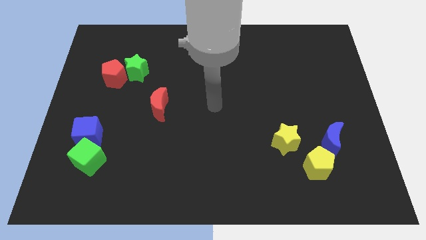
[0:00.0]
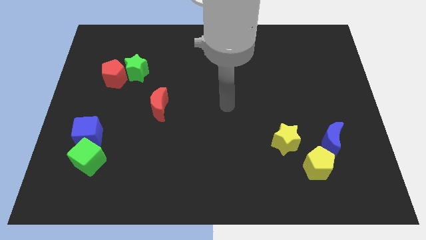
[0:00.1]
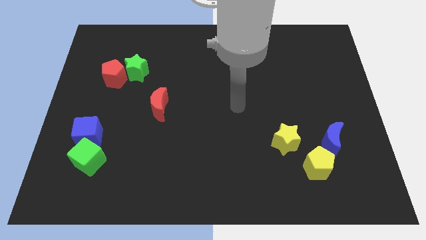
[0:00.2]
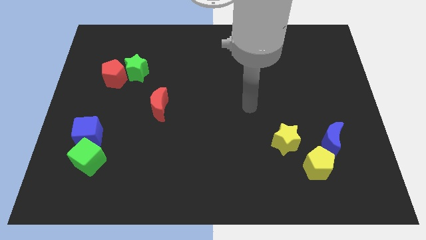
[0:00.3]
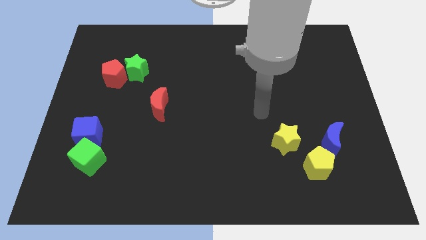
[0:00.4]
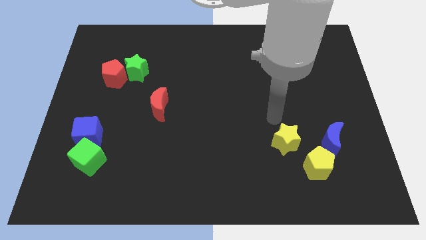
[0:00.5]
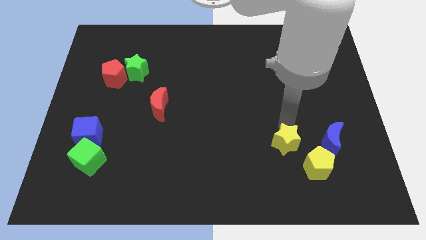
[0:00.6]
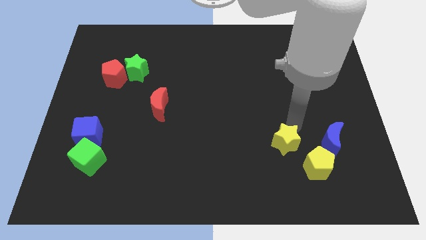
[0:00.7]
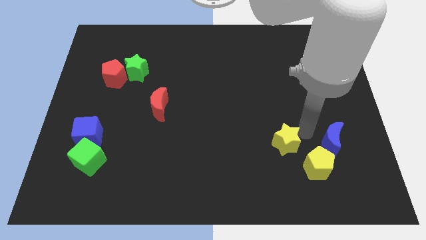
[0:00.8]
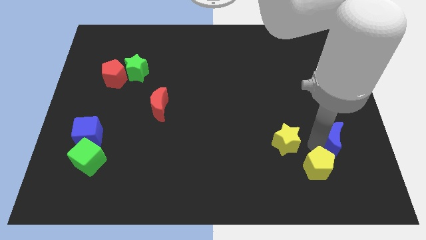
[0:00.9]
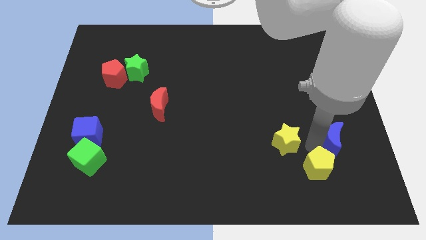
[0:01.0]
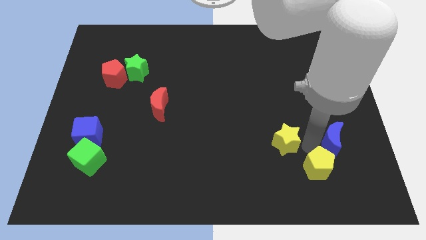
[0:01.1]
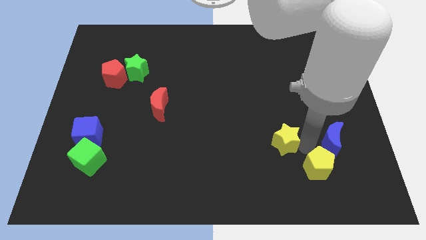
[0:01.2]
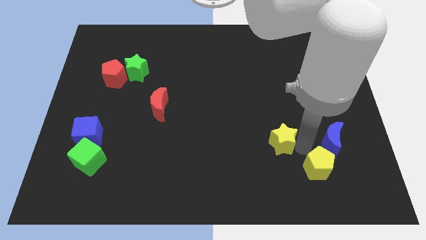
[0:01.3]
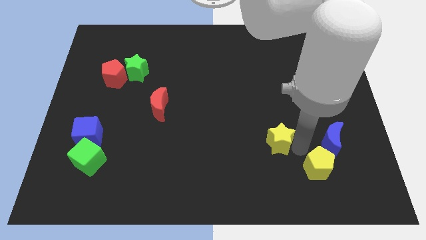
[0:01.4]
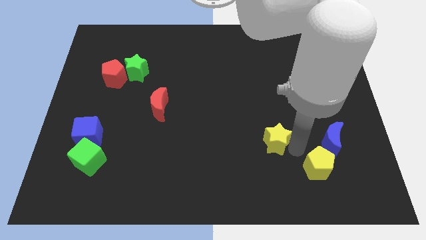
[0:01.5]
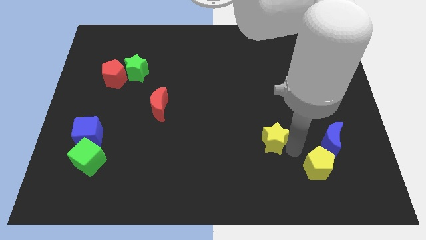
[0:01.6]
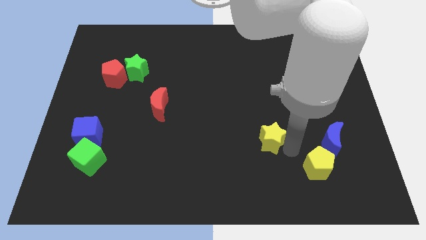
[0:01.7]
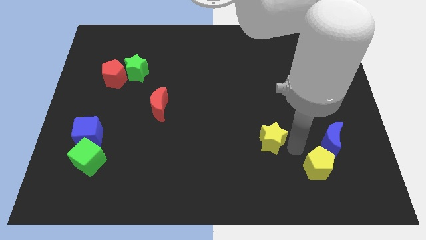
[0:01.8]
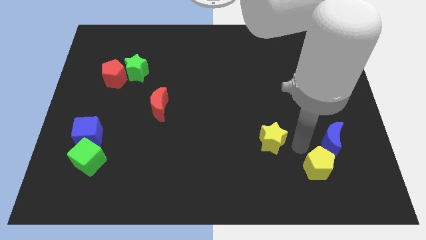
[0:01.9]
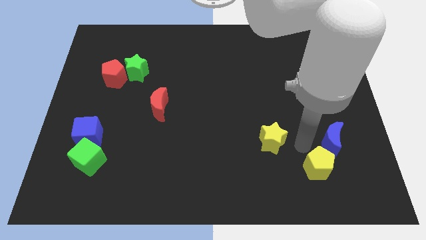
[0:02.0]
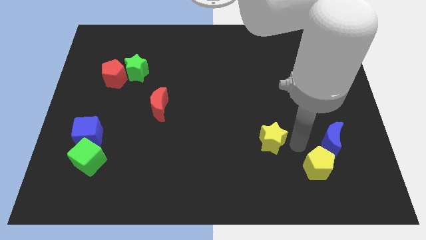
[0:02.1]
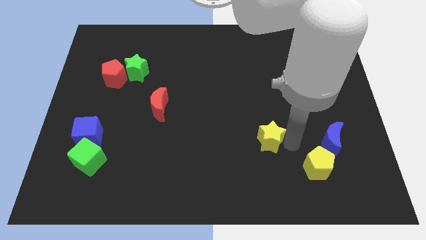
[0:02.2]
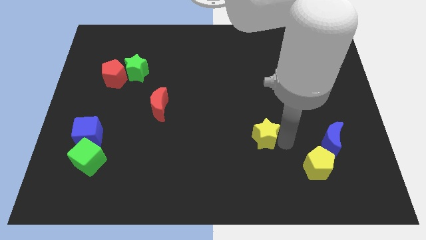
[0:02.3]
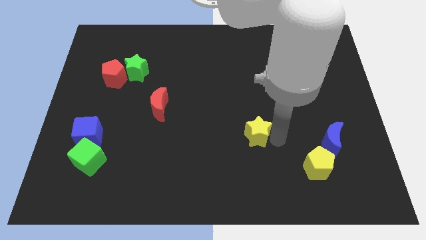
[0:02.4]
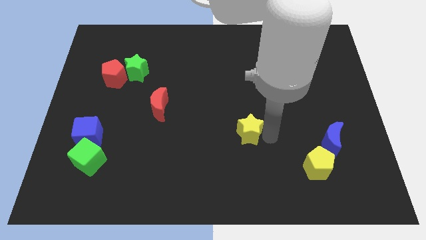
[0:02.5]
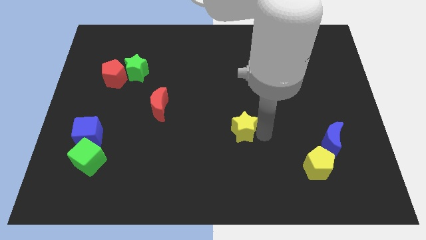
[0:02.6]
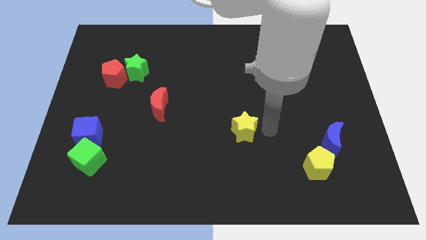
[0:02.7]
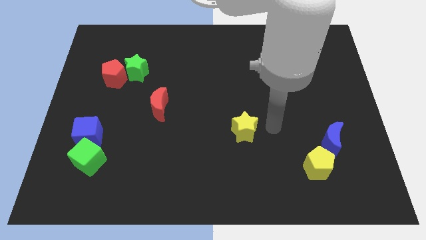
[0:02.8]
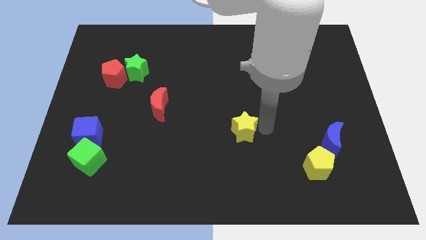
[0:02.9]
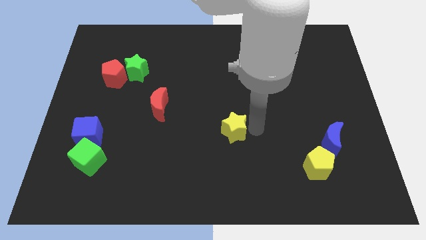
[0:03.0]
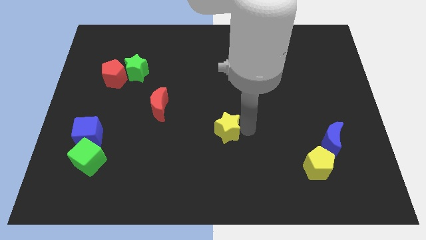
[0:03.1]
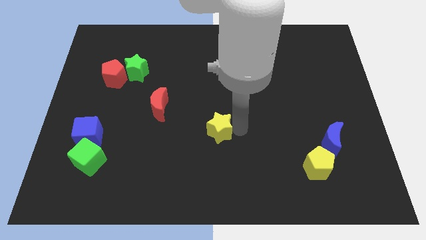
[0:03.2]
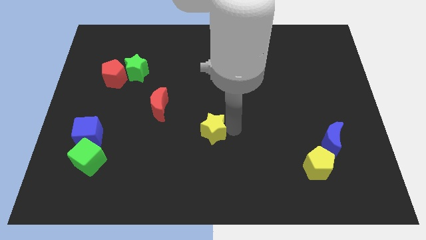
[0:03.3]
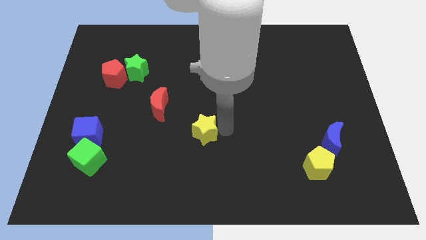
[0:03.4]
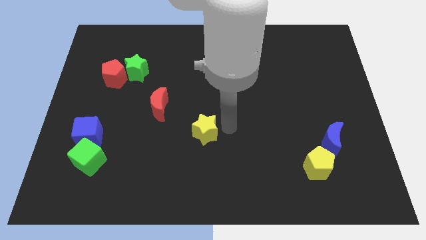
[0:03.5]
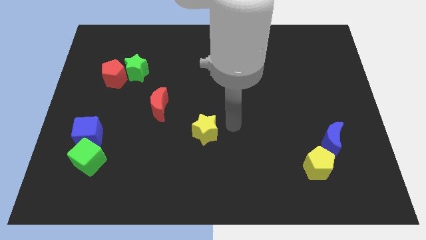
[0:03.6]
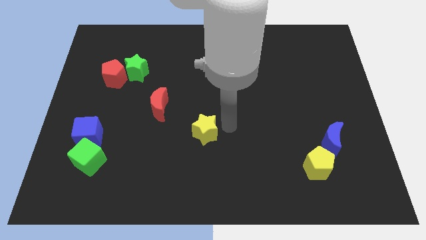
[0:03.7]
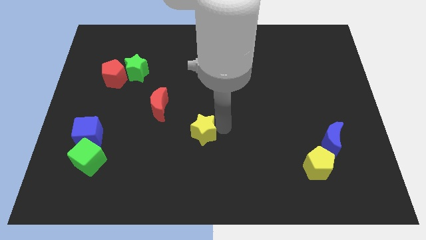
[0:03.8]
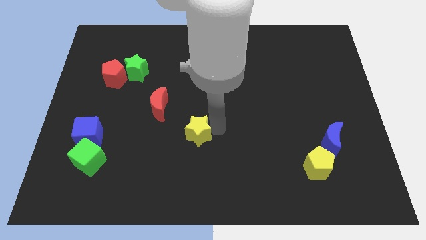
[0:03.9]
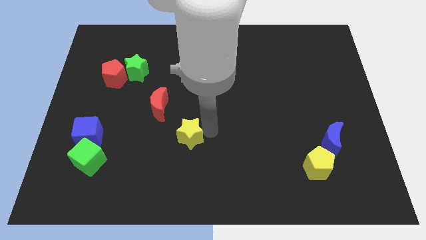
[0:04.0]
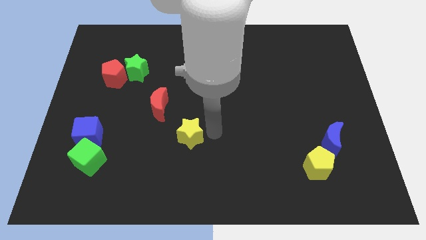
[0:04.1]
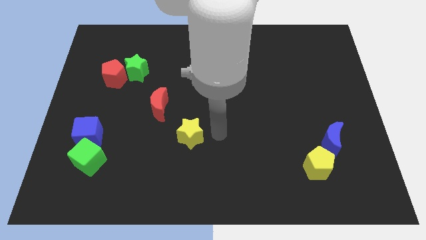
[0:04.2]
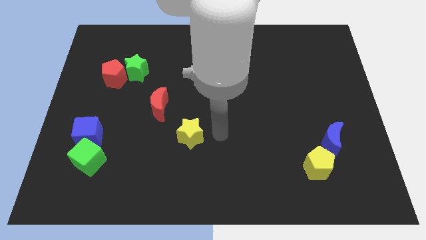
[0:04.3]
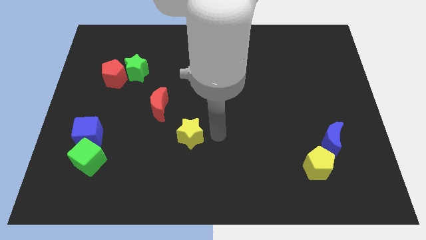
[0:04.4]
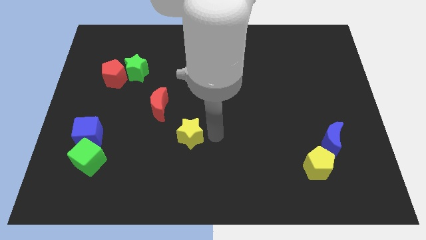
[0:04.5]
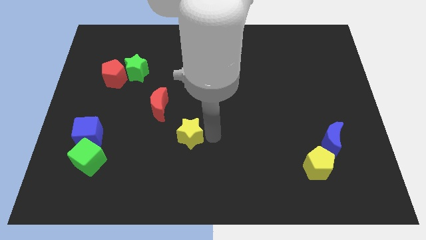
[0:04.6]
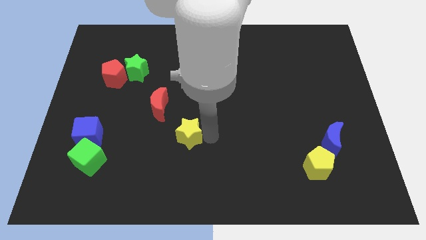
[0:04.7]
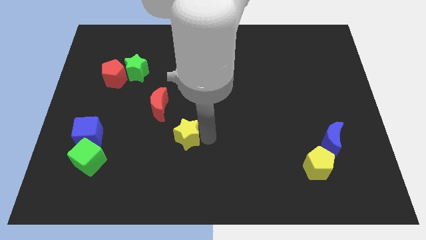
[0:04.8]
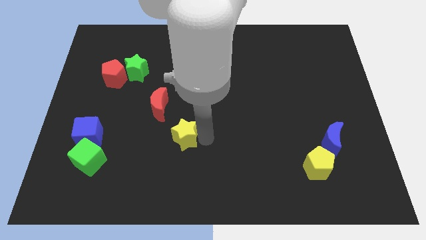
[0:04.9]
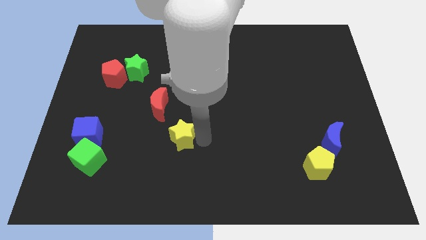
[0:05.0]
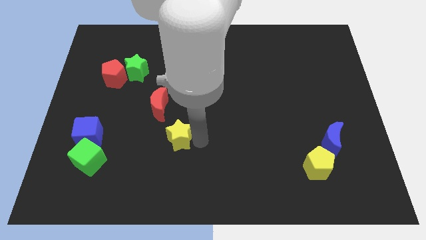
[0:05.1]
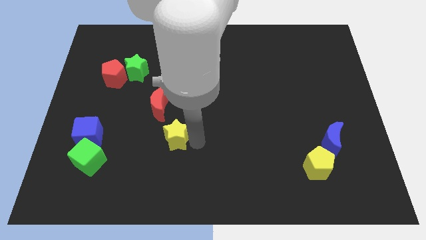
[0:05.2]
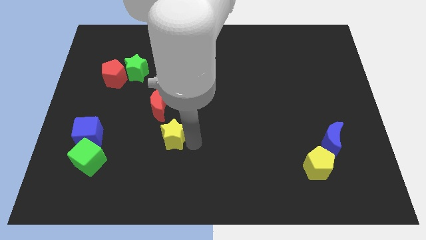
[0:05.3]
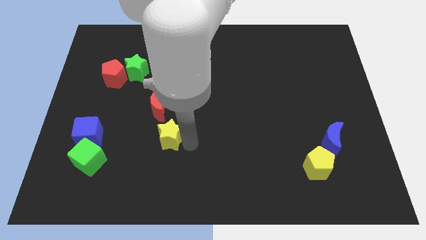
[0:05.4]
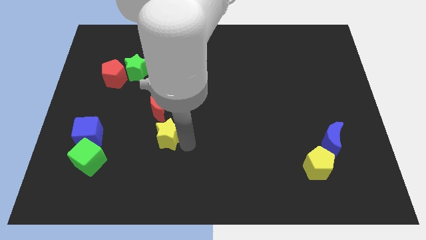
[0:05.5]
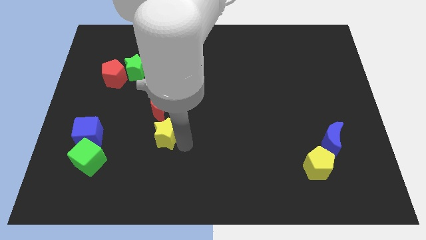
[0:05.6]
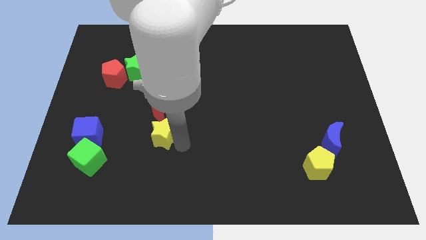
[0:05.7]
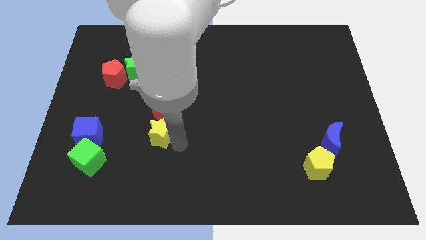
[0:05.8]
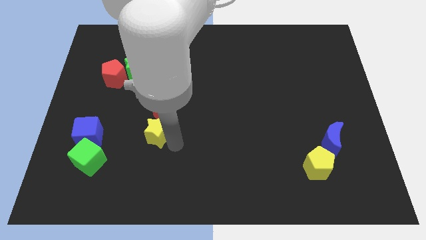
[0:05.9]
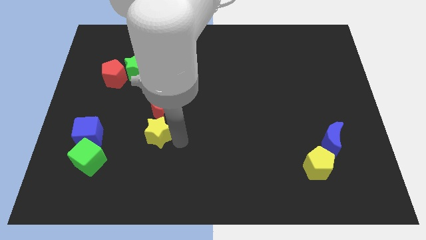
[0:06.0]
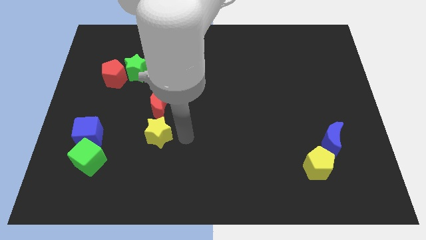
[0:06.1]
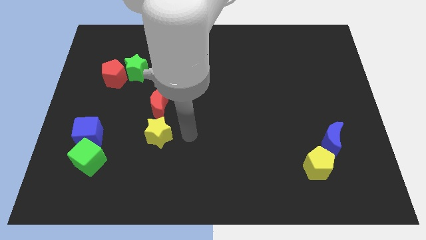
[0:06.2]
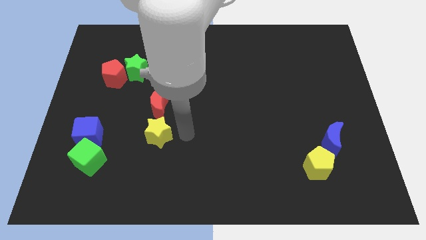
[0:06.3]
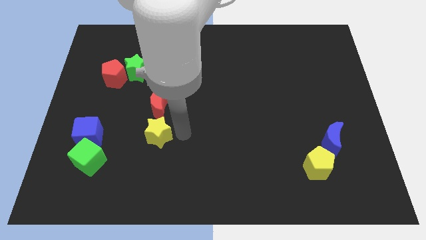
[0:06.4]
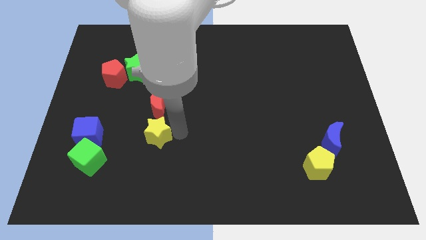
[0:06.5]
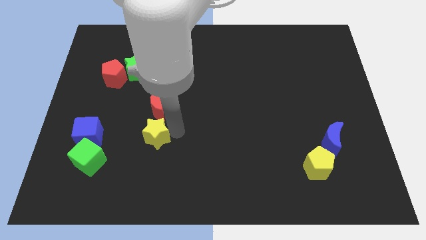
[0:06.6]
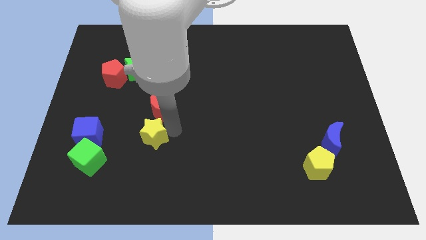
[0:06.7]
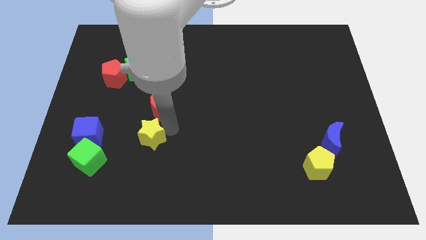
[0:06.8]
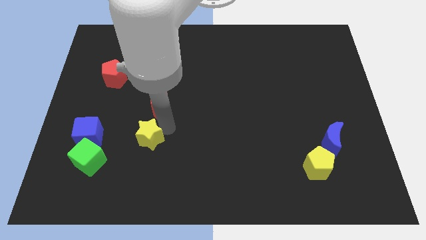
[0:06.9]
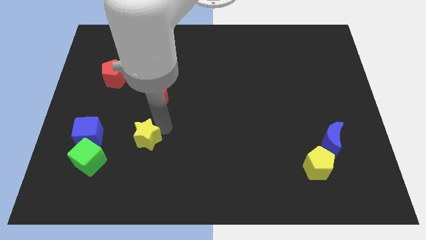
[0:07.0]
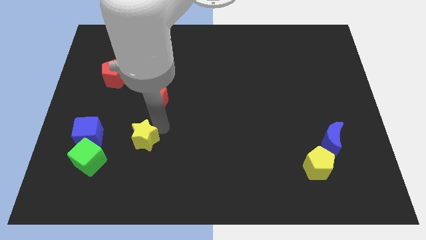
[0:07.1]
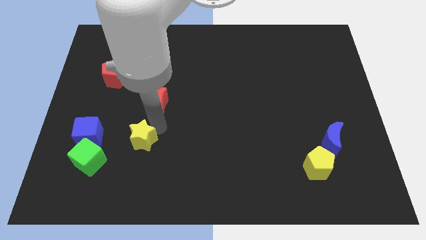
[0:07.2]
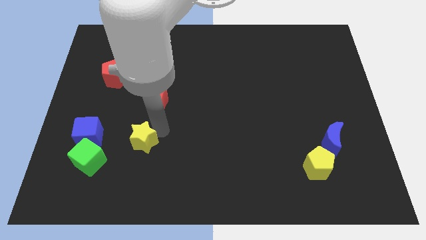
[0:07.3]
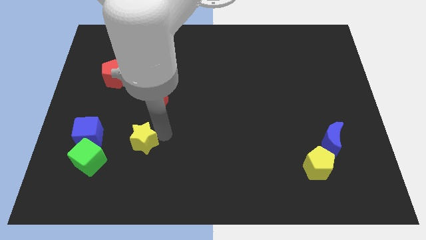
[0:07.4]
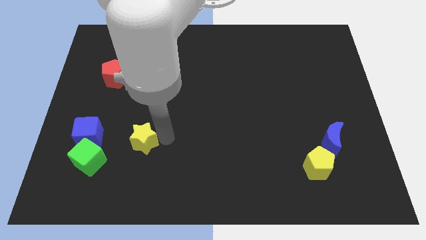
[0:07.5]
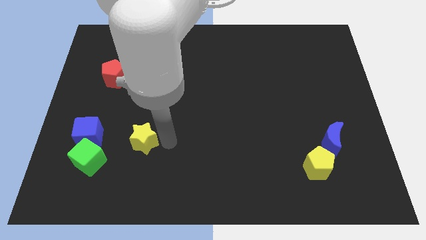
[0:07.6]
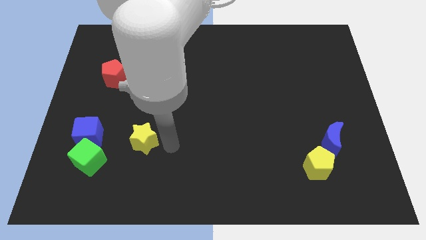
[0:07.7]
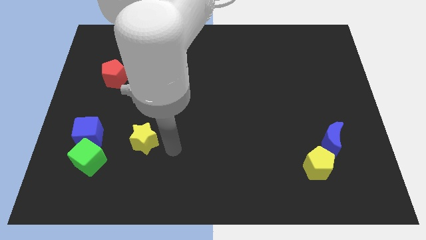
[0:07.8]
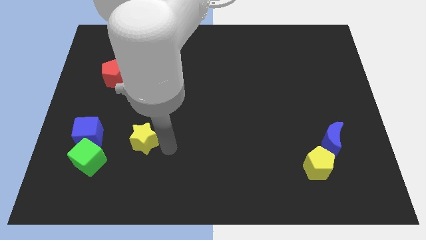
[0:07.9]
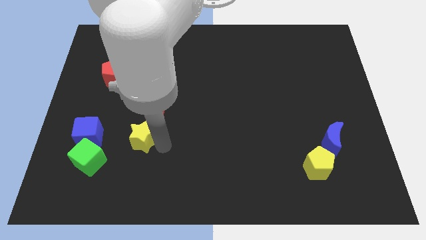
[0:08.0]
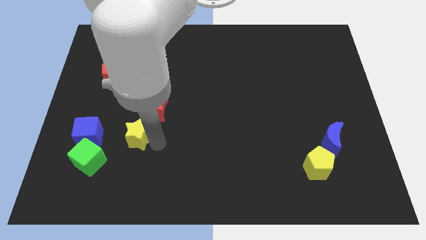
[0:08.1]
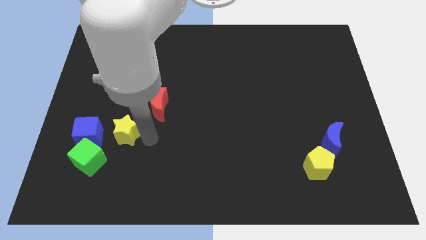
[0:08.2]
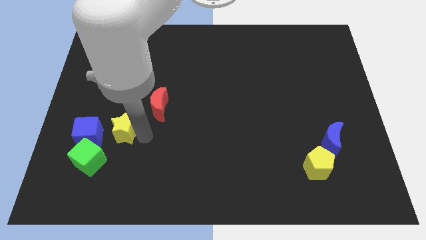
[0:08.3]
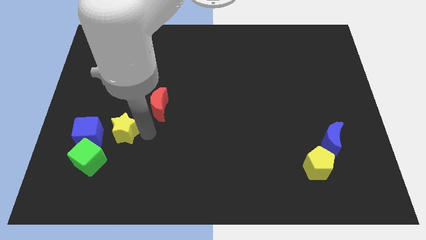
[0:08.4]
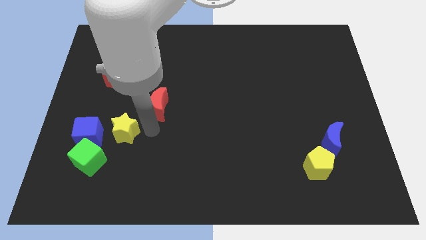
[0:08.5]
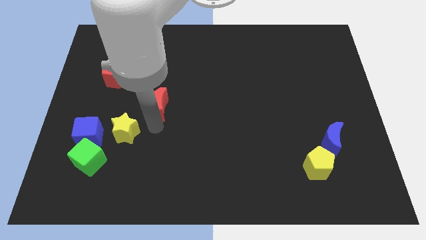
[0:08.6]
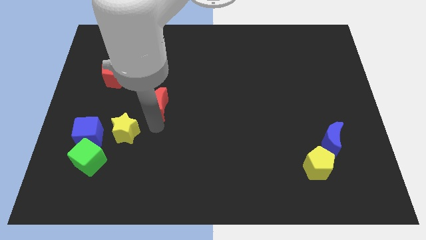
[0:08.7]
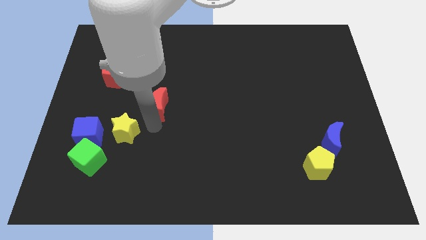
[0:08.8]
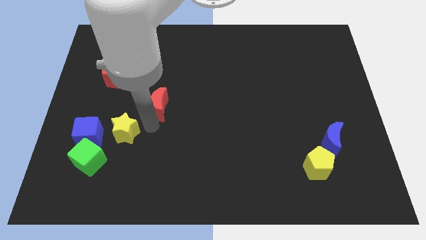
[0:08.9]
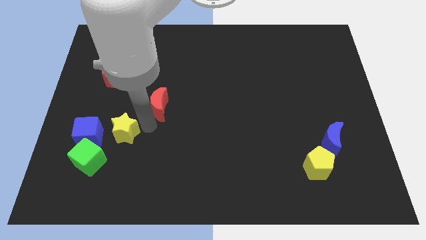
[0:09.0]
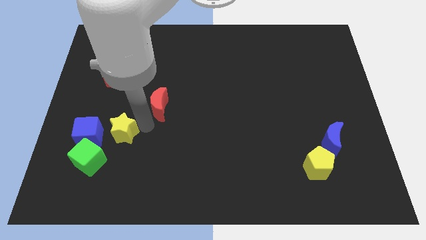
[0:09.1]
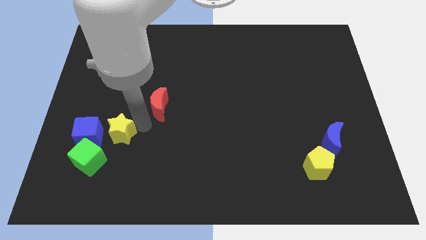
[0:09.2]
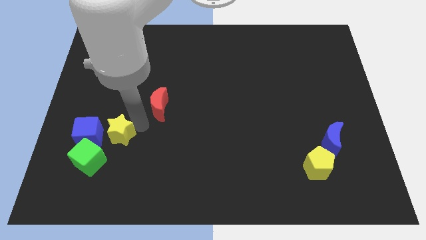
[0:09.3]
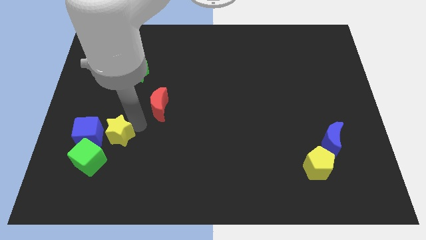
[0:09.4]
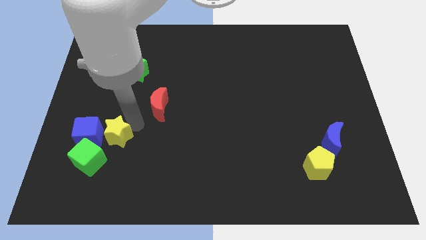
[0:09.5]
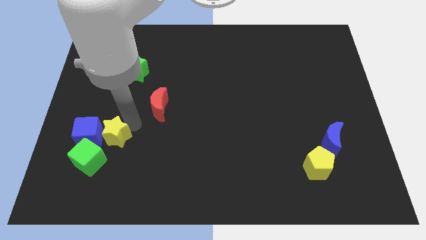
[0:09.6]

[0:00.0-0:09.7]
slide the yellow star towards the blue cube
